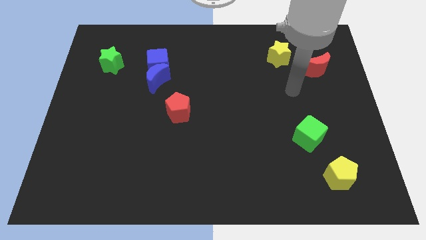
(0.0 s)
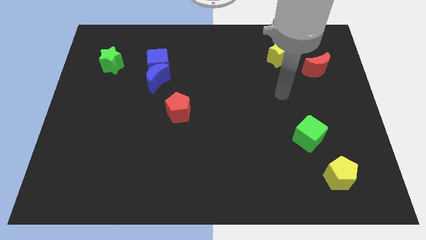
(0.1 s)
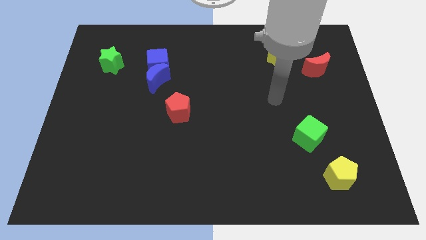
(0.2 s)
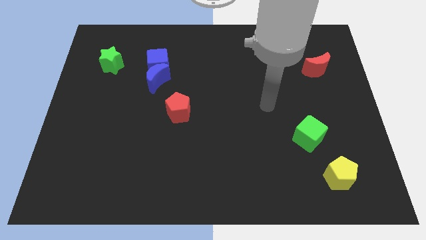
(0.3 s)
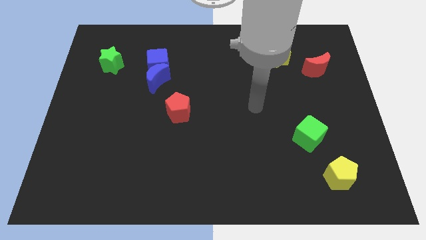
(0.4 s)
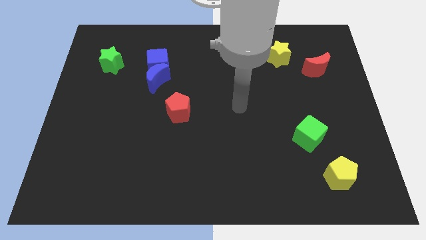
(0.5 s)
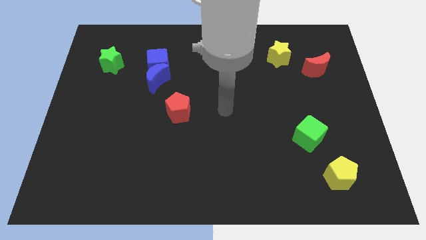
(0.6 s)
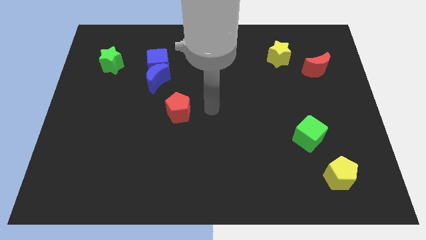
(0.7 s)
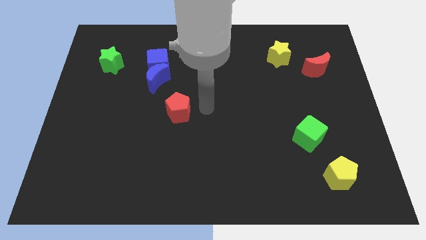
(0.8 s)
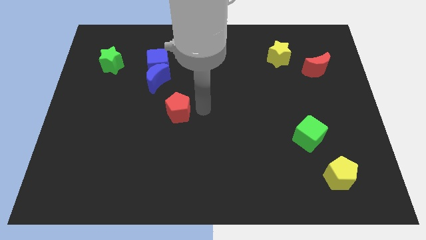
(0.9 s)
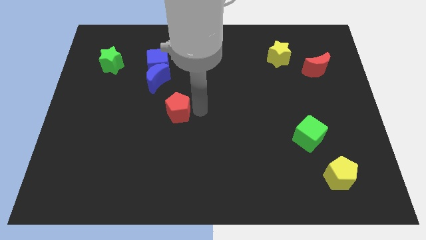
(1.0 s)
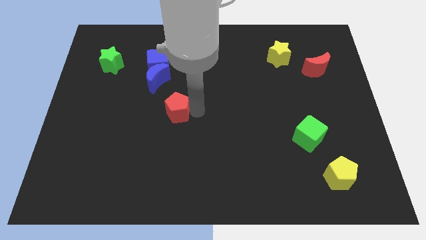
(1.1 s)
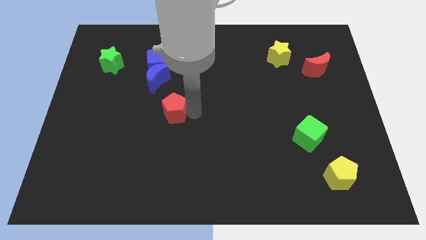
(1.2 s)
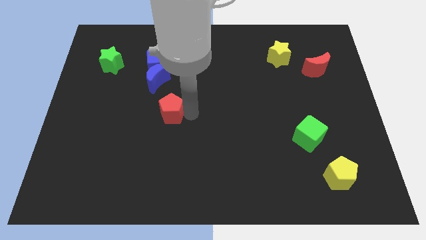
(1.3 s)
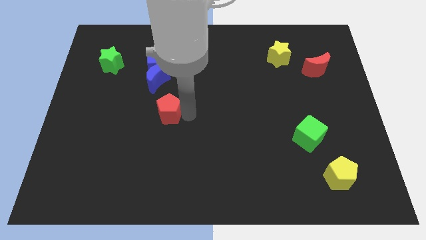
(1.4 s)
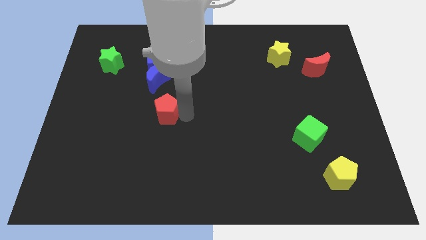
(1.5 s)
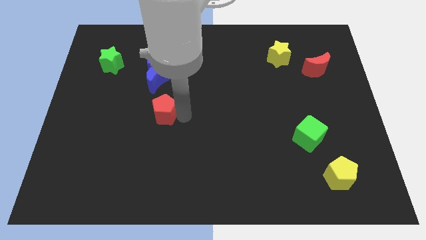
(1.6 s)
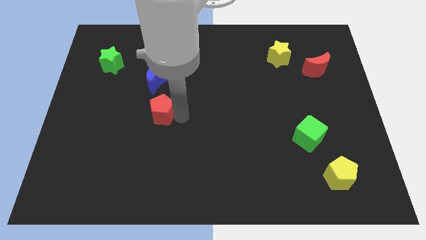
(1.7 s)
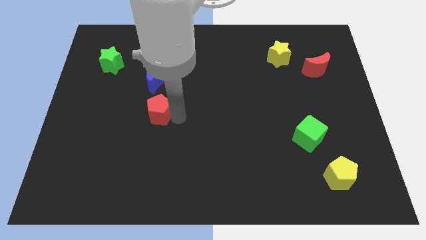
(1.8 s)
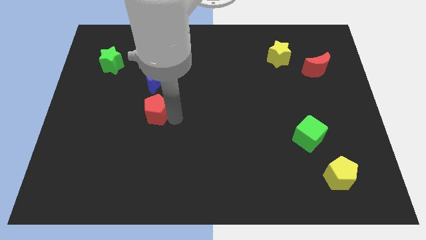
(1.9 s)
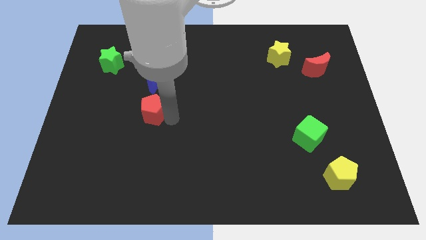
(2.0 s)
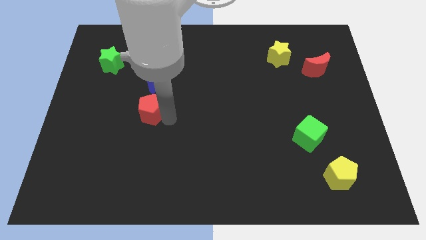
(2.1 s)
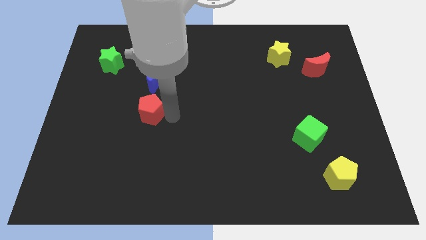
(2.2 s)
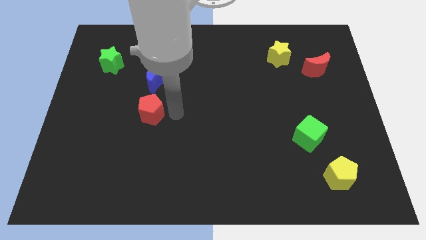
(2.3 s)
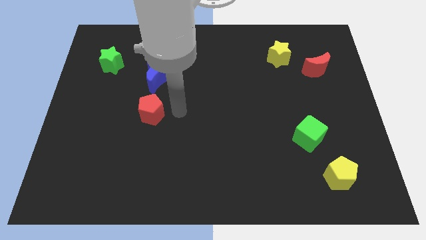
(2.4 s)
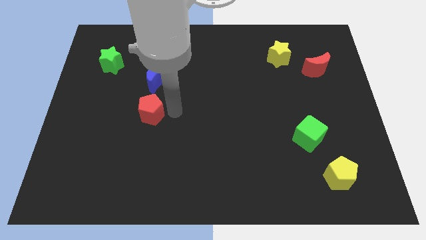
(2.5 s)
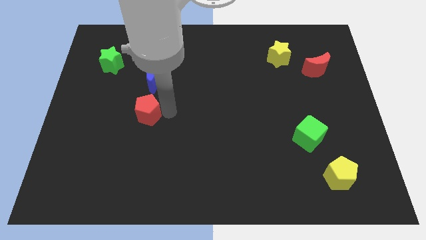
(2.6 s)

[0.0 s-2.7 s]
slightly move the red pentagon to the left

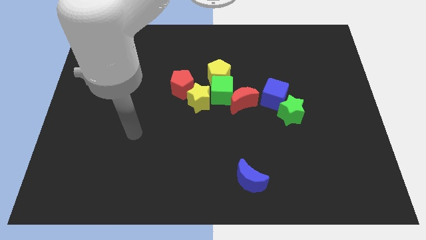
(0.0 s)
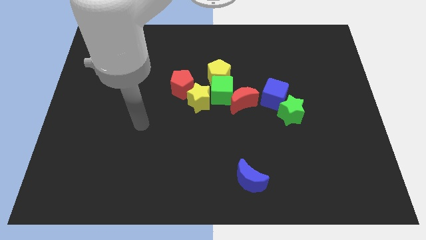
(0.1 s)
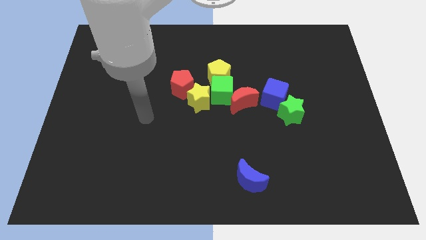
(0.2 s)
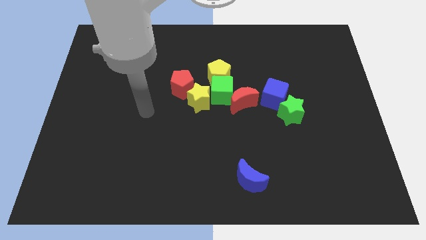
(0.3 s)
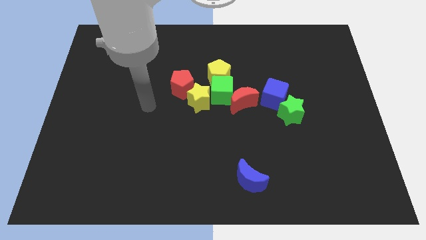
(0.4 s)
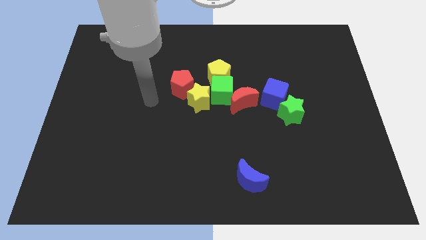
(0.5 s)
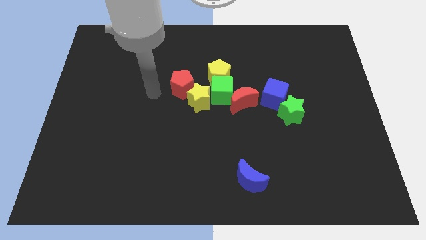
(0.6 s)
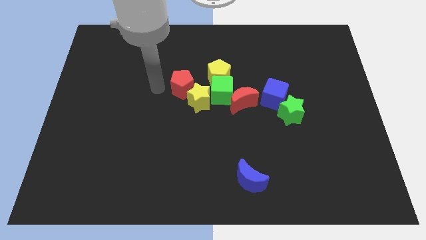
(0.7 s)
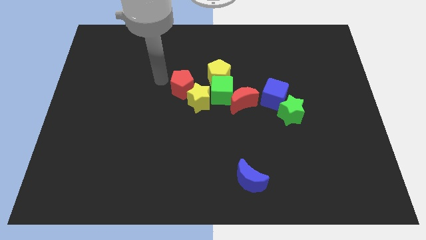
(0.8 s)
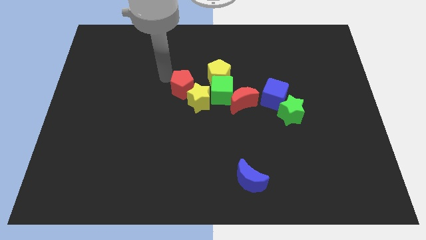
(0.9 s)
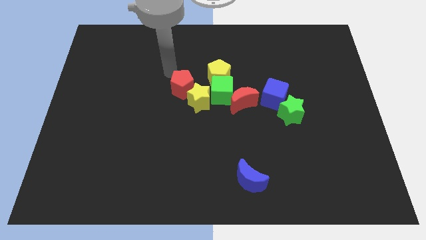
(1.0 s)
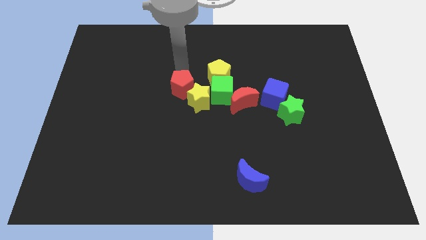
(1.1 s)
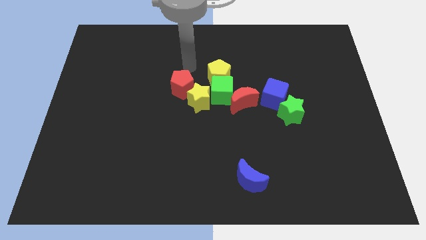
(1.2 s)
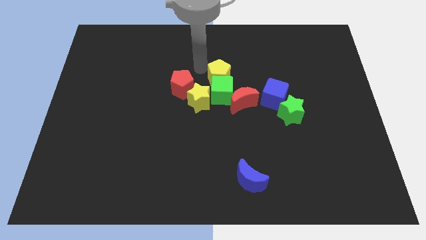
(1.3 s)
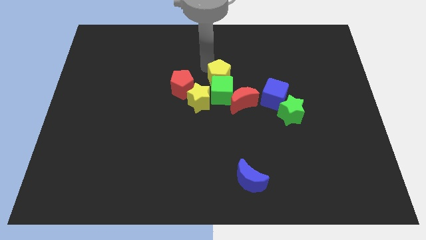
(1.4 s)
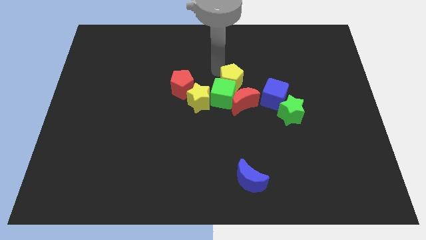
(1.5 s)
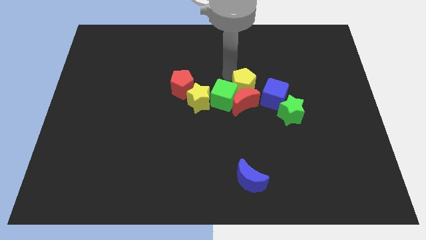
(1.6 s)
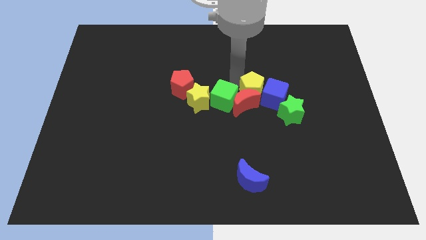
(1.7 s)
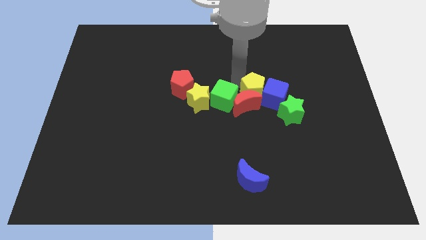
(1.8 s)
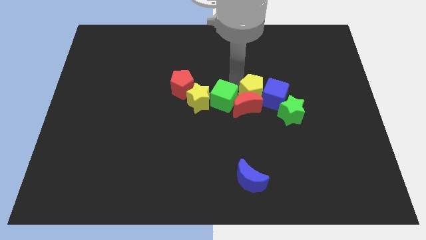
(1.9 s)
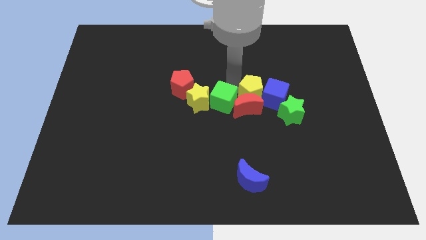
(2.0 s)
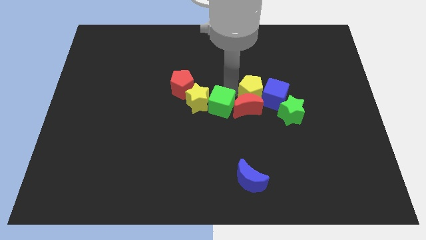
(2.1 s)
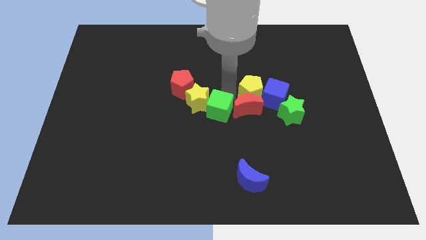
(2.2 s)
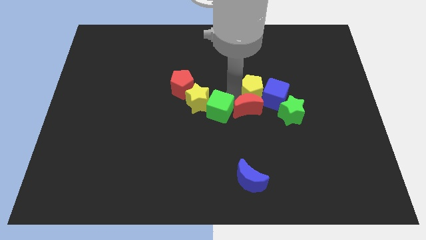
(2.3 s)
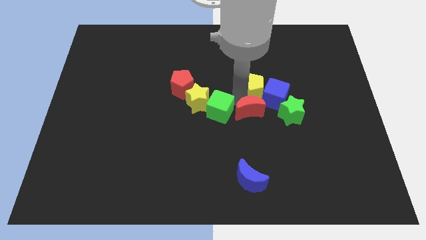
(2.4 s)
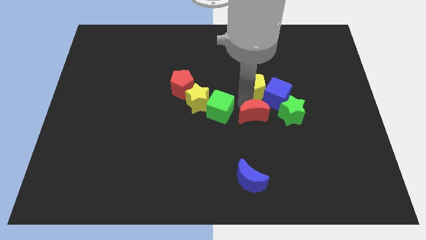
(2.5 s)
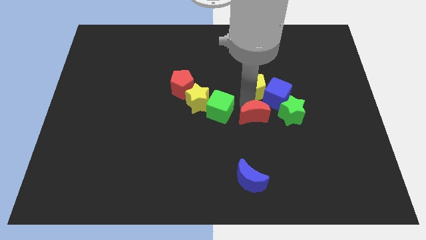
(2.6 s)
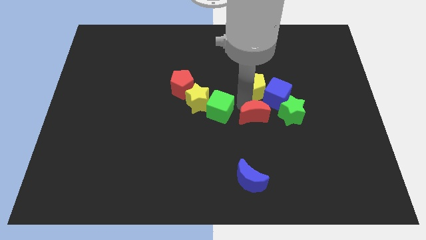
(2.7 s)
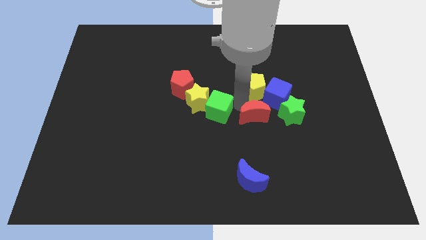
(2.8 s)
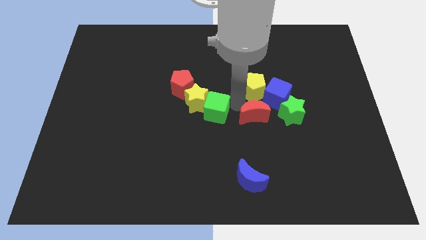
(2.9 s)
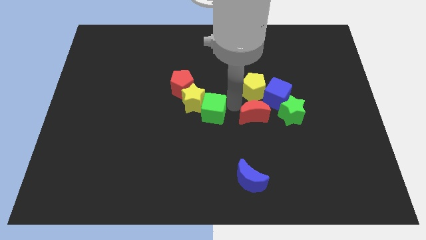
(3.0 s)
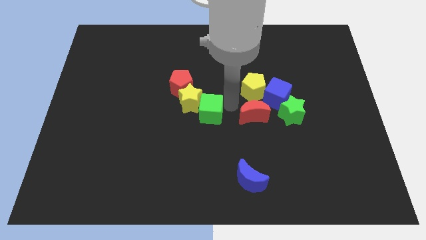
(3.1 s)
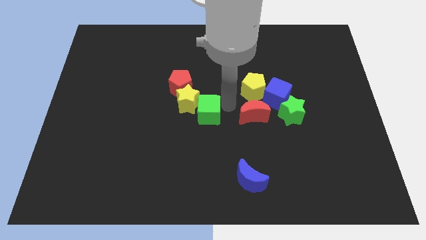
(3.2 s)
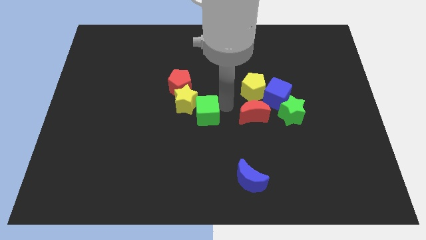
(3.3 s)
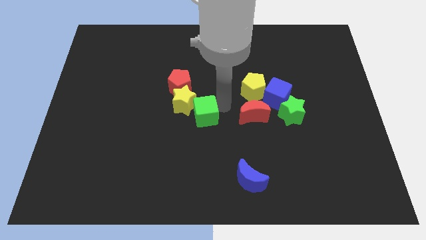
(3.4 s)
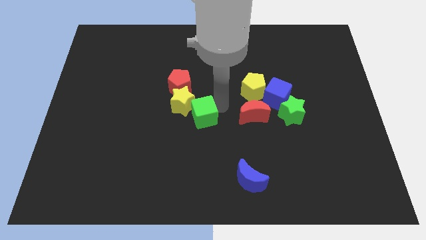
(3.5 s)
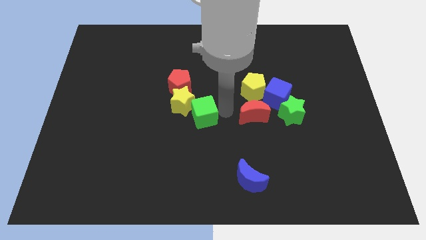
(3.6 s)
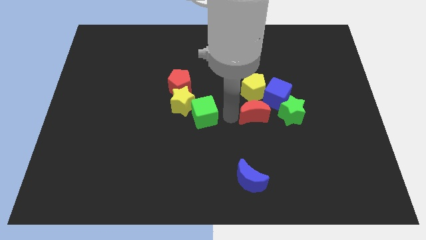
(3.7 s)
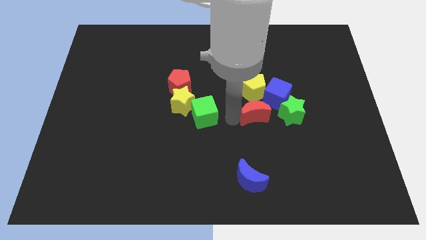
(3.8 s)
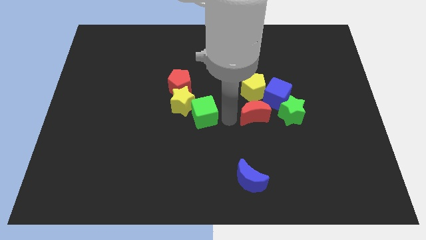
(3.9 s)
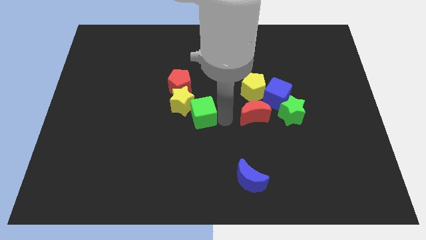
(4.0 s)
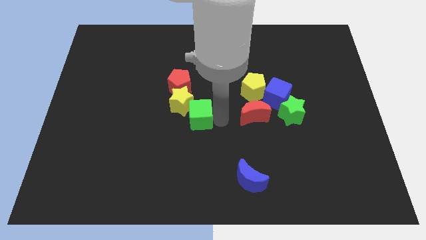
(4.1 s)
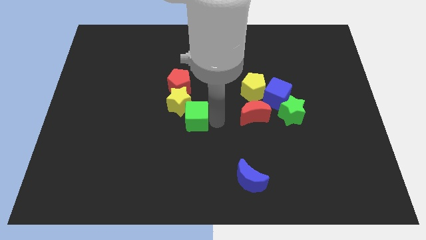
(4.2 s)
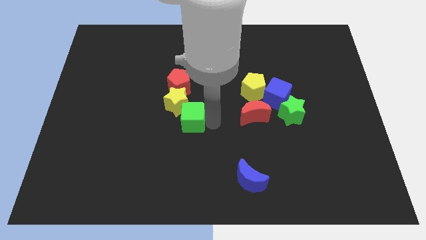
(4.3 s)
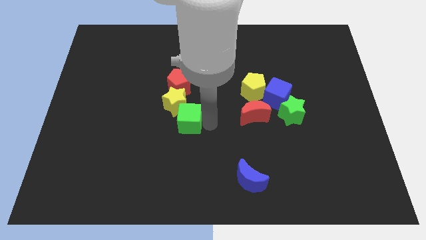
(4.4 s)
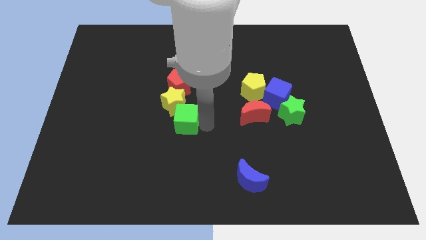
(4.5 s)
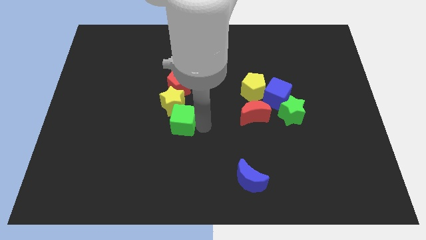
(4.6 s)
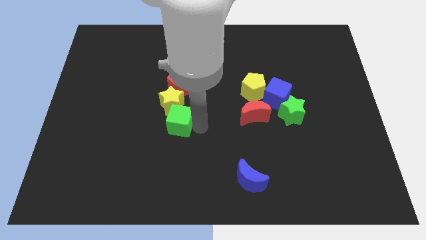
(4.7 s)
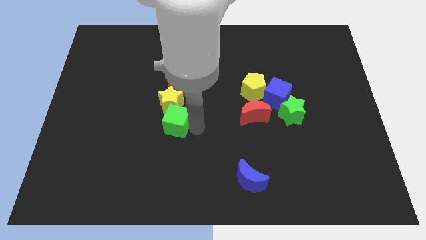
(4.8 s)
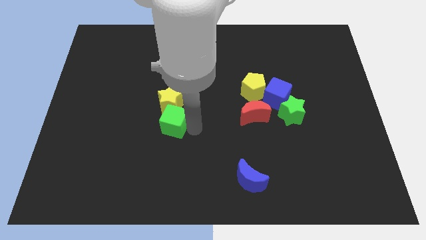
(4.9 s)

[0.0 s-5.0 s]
push the green cube left slightly

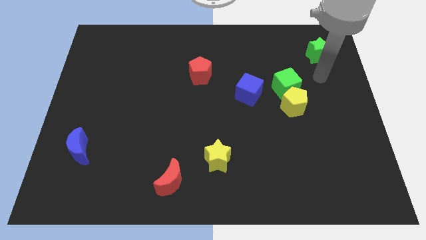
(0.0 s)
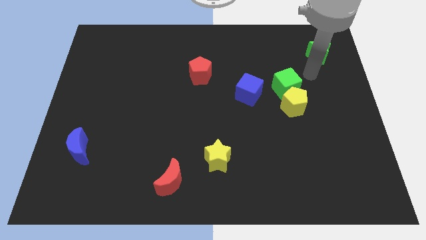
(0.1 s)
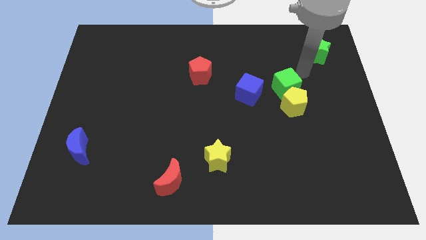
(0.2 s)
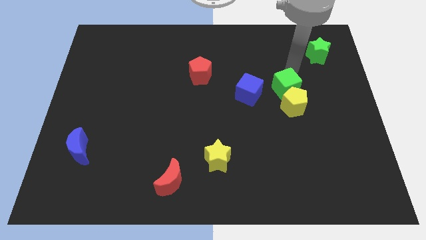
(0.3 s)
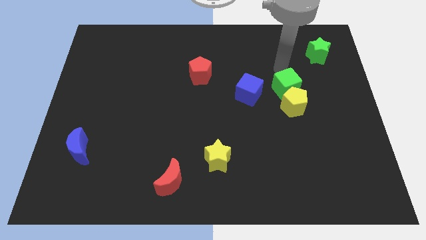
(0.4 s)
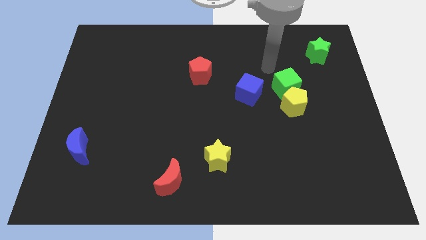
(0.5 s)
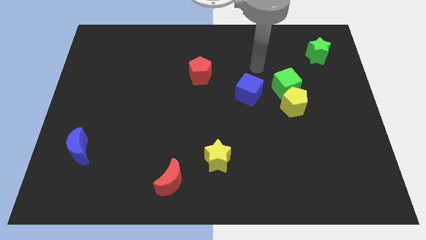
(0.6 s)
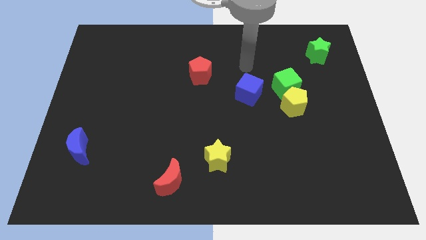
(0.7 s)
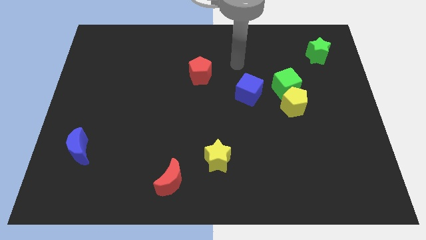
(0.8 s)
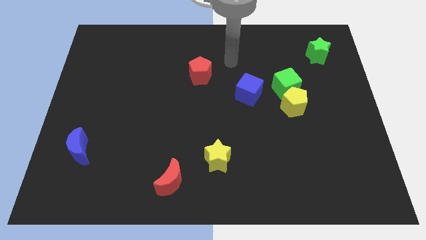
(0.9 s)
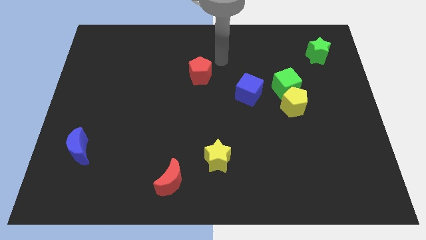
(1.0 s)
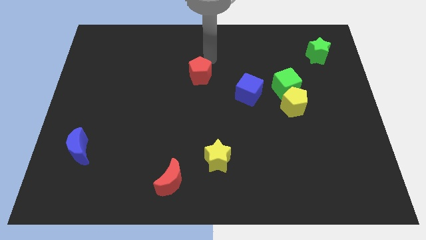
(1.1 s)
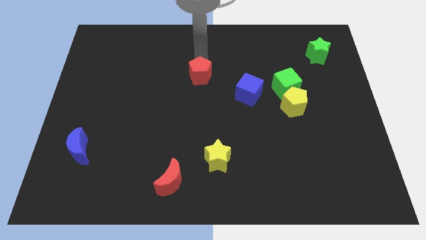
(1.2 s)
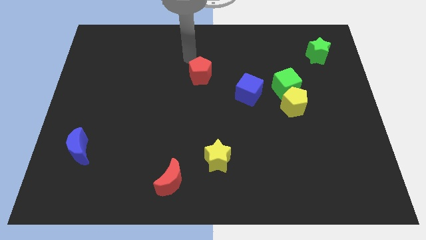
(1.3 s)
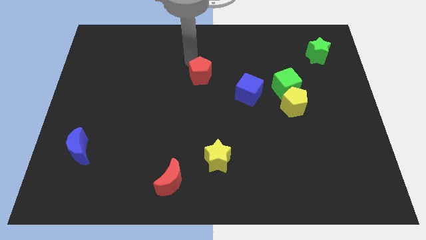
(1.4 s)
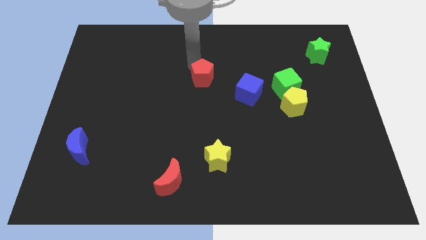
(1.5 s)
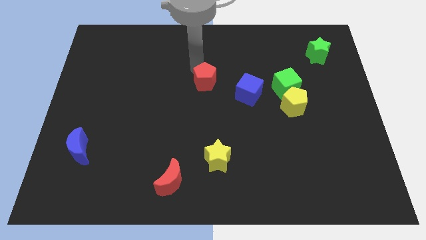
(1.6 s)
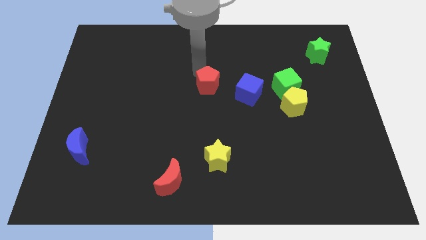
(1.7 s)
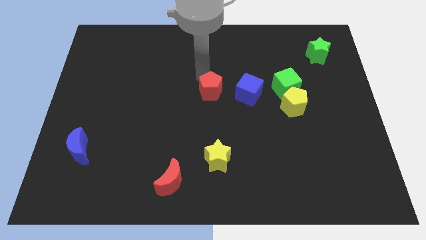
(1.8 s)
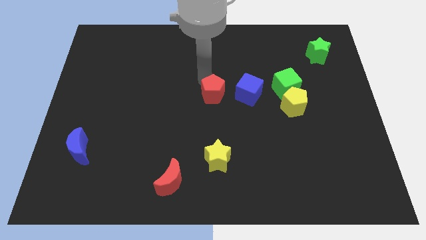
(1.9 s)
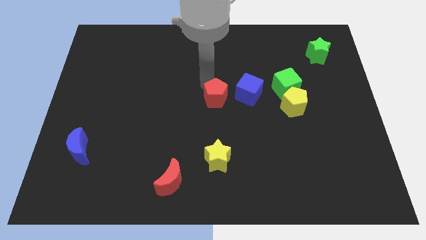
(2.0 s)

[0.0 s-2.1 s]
move the red pentagon downwards and to the right somewhat
